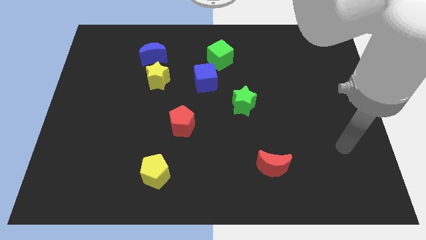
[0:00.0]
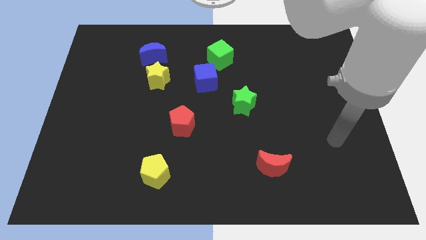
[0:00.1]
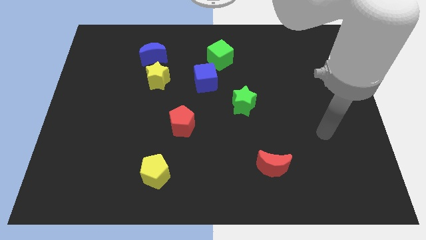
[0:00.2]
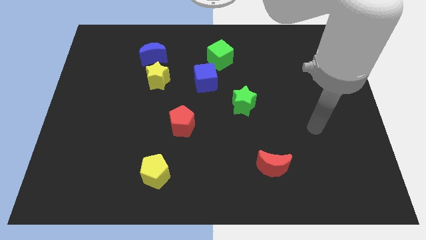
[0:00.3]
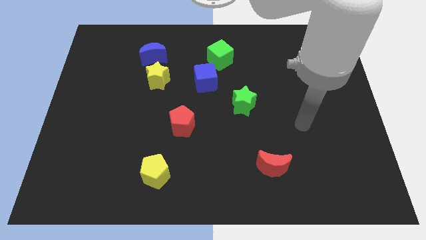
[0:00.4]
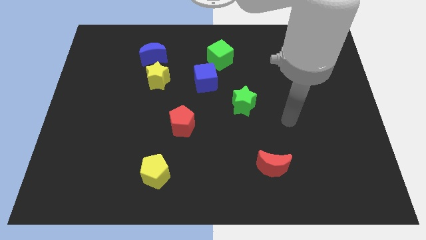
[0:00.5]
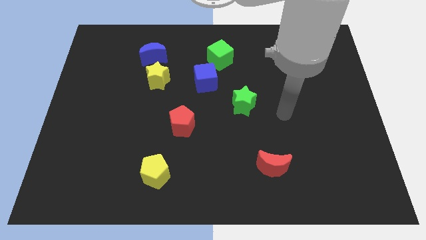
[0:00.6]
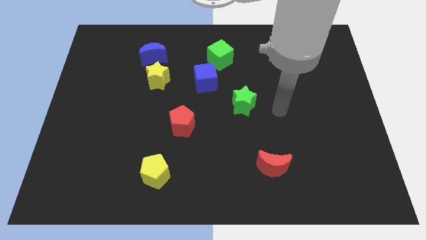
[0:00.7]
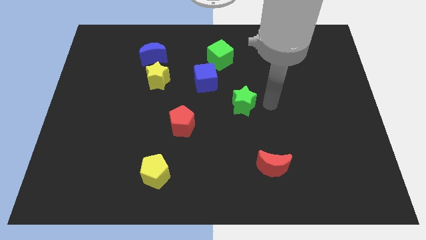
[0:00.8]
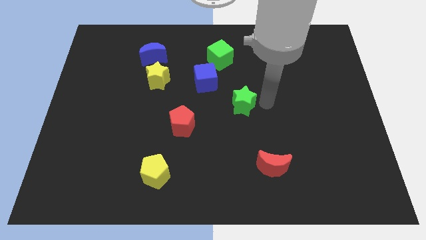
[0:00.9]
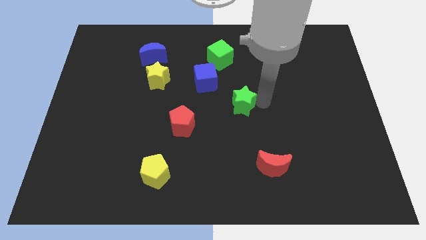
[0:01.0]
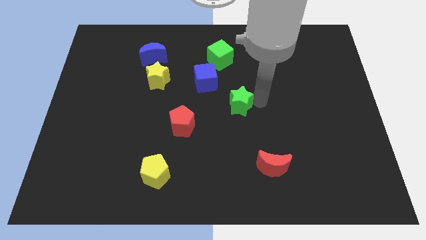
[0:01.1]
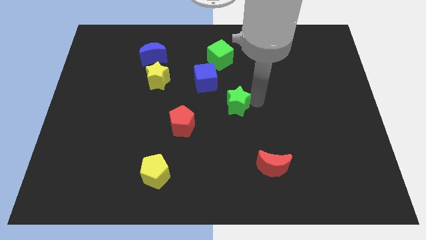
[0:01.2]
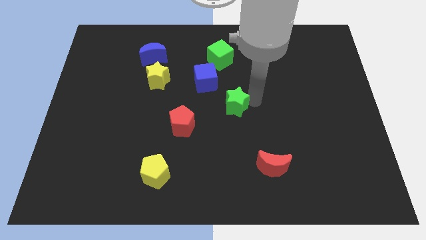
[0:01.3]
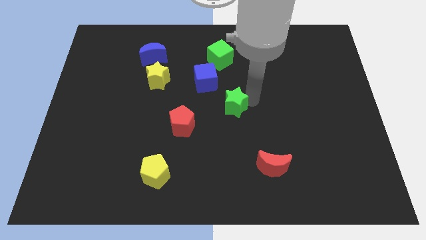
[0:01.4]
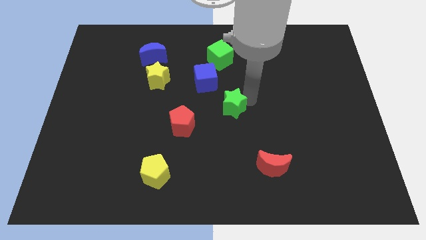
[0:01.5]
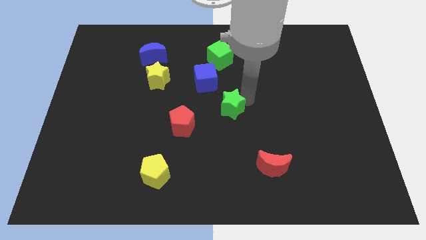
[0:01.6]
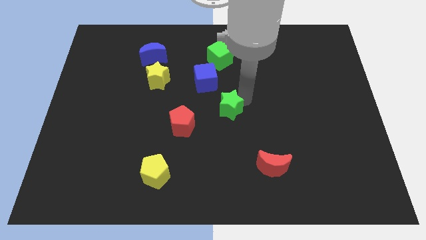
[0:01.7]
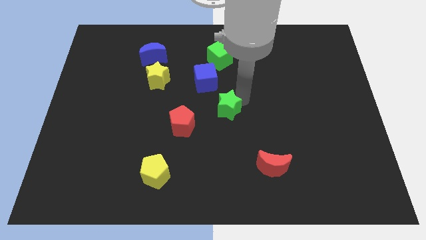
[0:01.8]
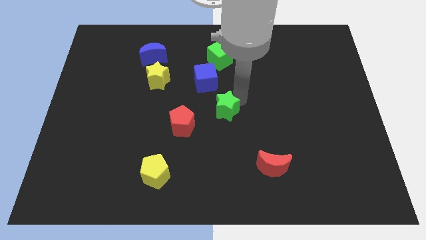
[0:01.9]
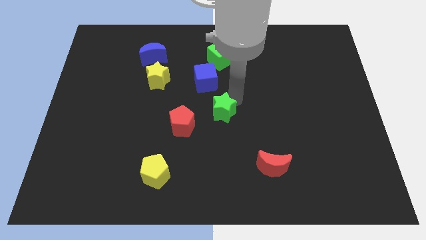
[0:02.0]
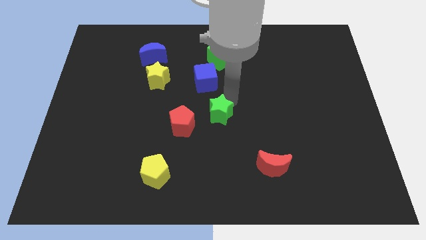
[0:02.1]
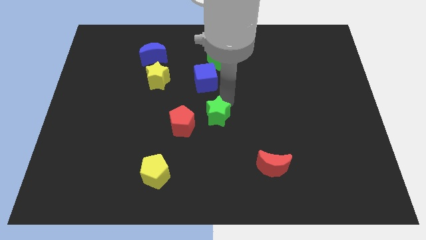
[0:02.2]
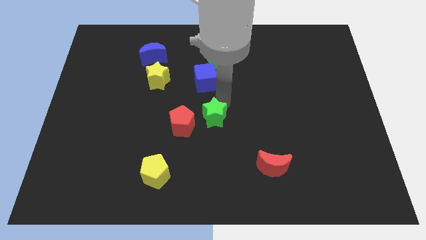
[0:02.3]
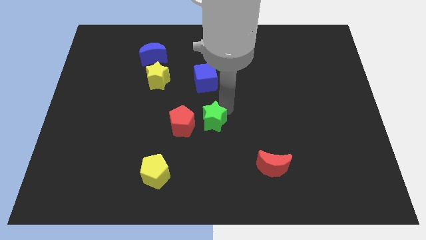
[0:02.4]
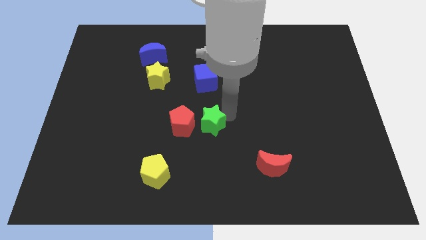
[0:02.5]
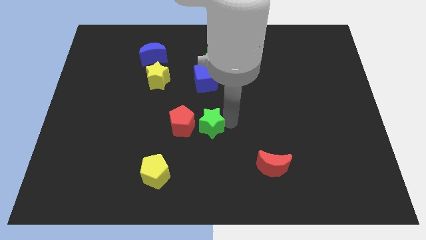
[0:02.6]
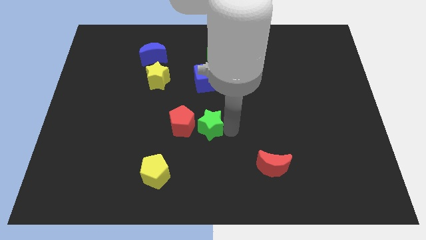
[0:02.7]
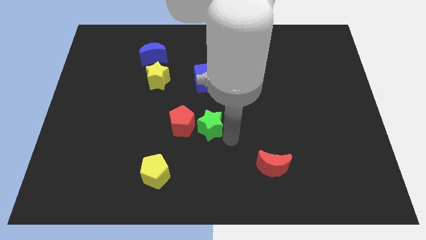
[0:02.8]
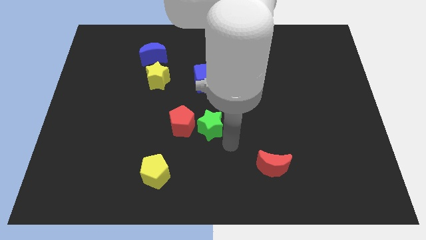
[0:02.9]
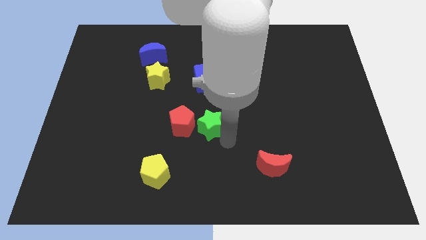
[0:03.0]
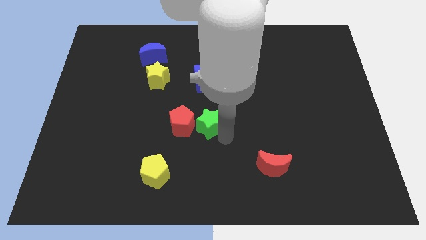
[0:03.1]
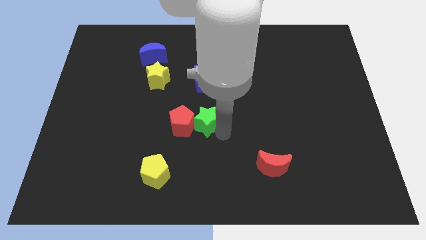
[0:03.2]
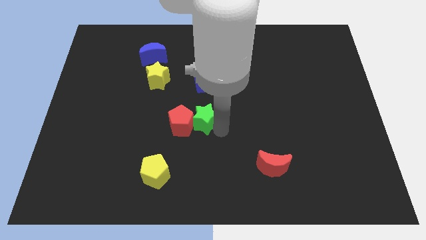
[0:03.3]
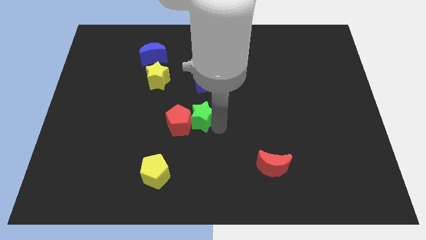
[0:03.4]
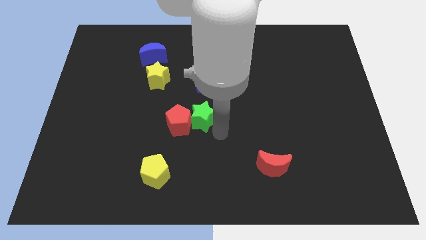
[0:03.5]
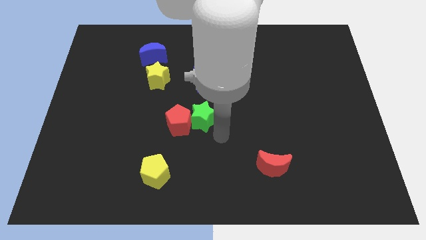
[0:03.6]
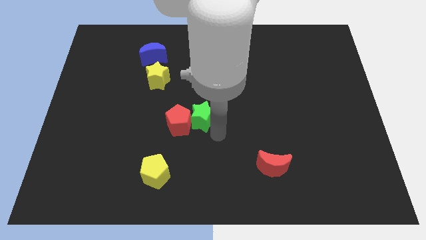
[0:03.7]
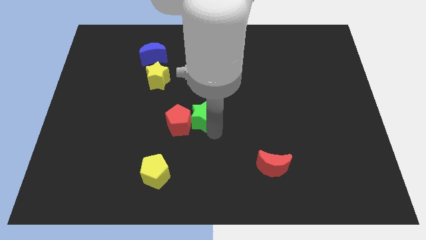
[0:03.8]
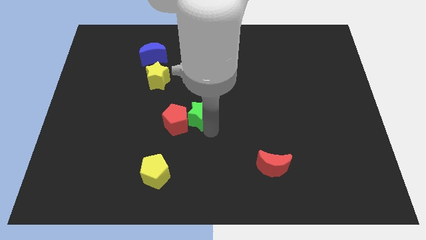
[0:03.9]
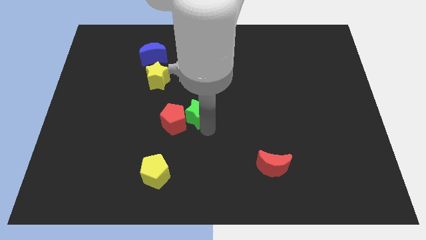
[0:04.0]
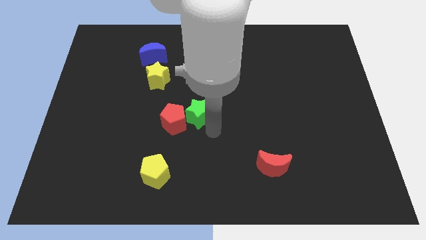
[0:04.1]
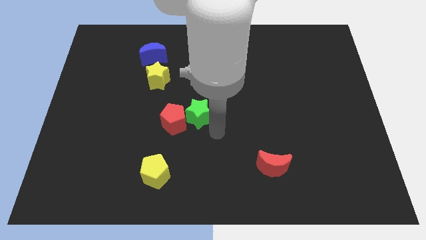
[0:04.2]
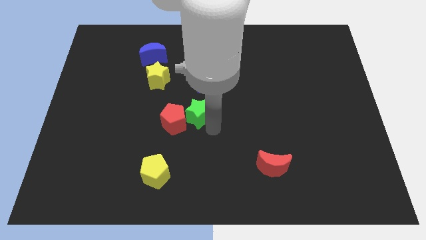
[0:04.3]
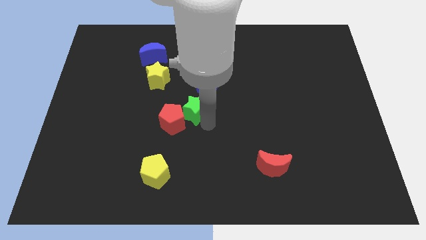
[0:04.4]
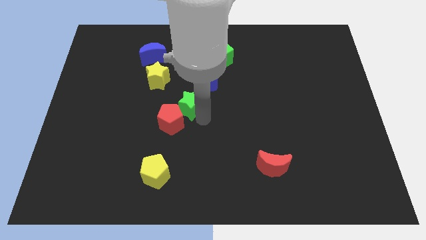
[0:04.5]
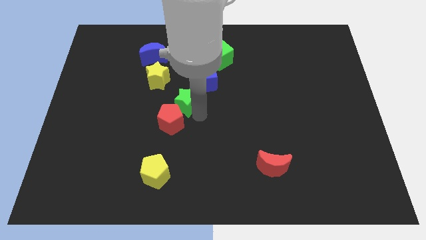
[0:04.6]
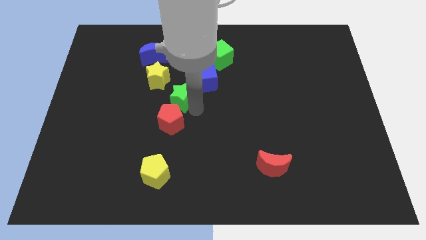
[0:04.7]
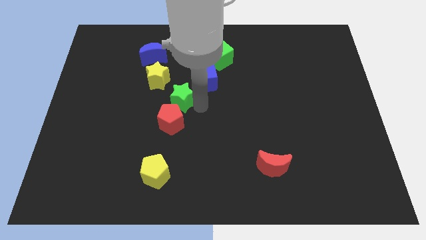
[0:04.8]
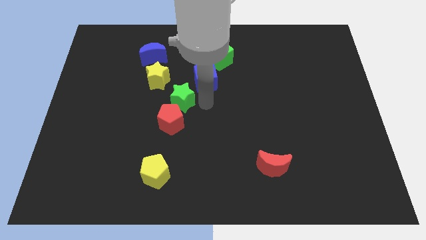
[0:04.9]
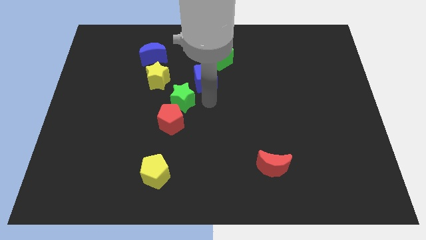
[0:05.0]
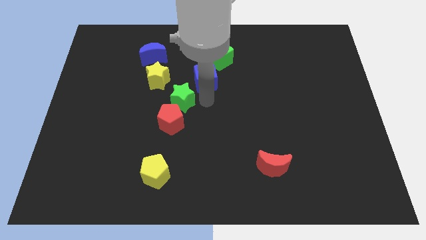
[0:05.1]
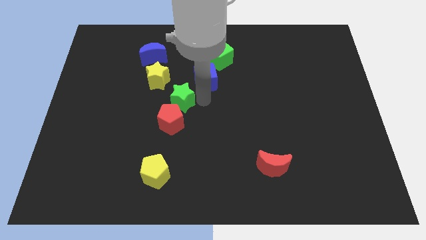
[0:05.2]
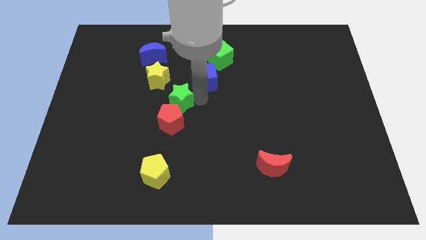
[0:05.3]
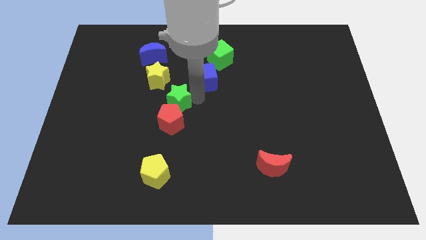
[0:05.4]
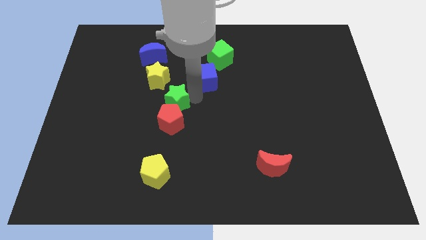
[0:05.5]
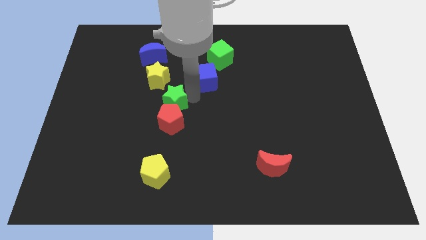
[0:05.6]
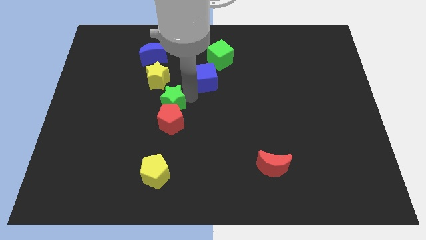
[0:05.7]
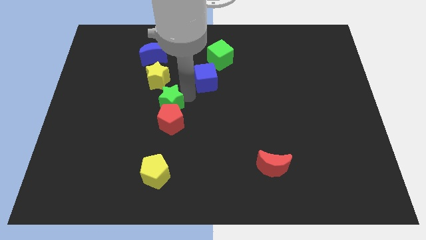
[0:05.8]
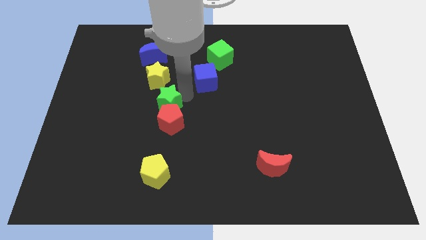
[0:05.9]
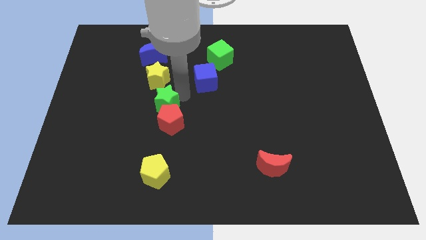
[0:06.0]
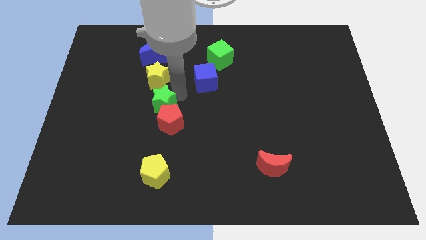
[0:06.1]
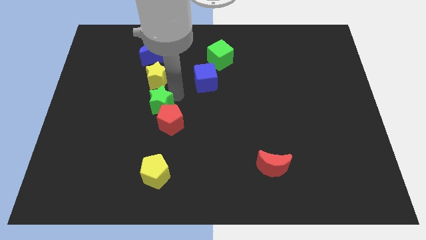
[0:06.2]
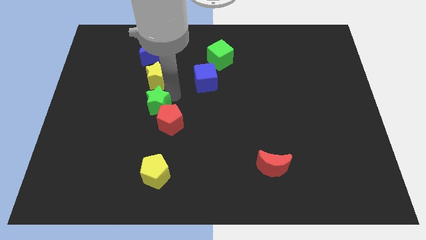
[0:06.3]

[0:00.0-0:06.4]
push the green star left

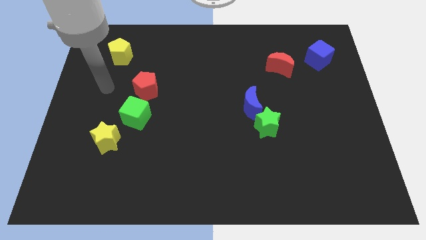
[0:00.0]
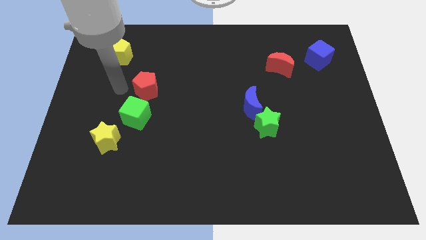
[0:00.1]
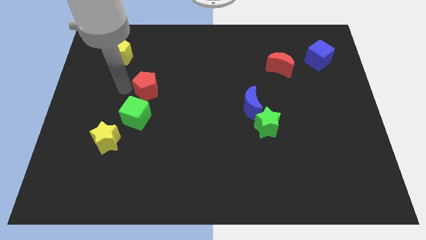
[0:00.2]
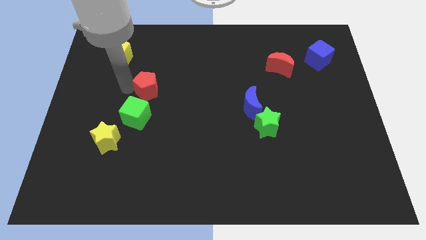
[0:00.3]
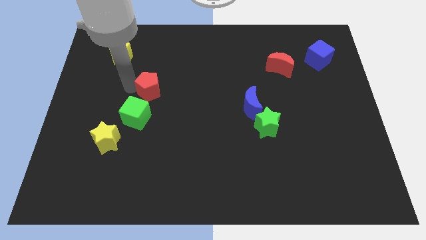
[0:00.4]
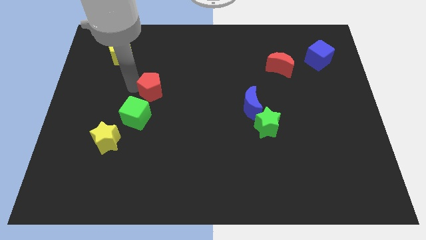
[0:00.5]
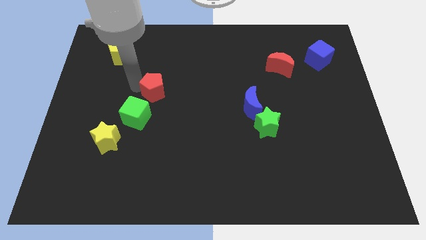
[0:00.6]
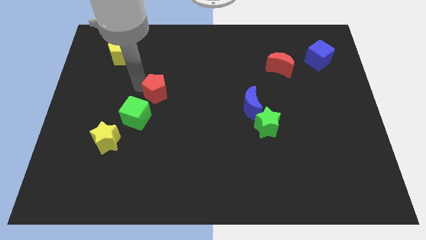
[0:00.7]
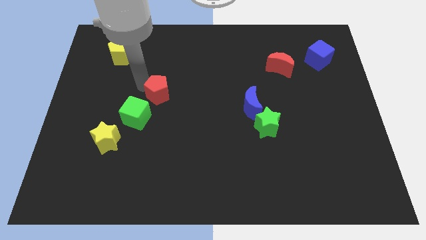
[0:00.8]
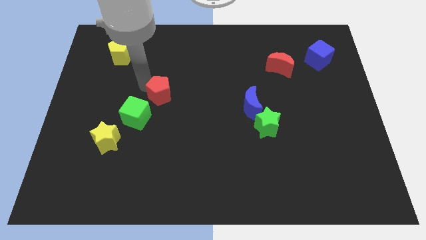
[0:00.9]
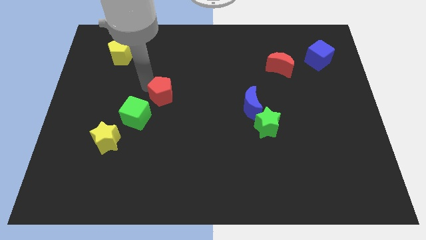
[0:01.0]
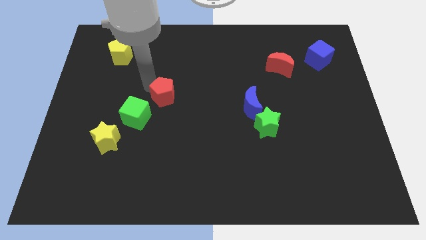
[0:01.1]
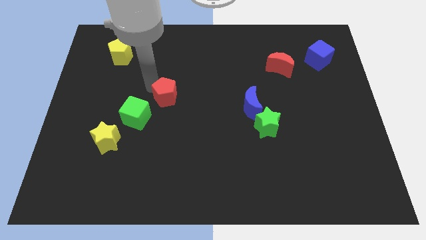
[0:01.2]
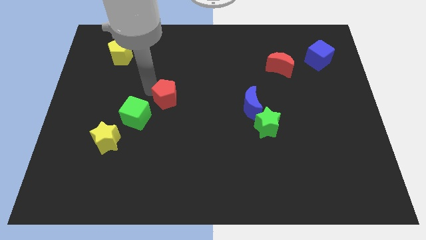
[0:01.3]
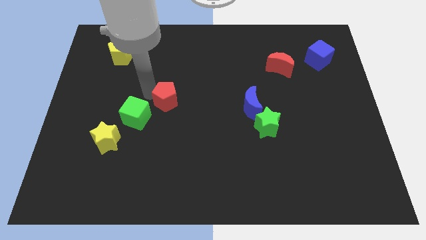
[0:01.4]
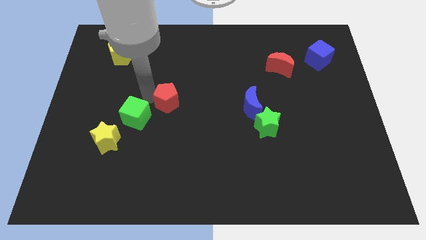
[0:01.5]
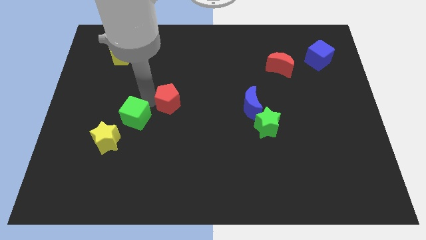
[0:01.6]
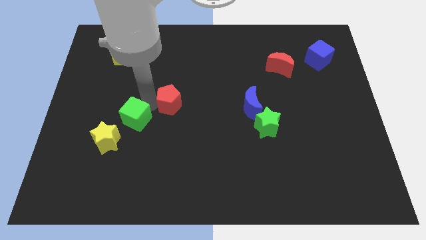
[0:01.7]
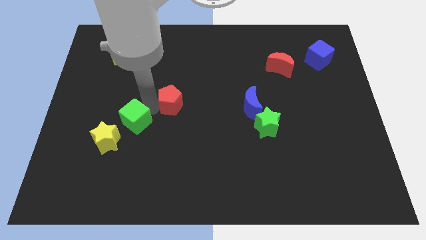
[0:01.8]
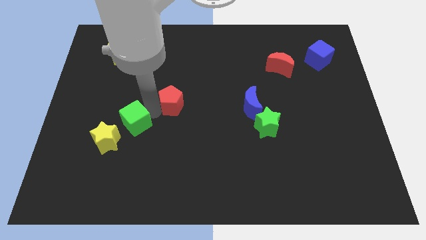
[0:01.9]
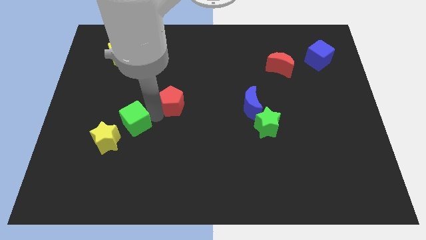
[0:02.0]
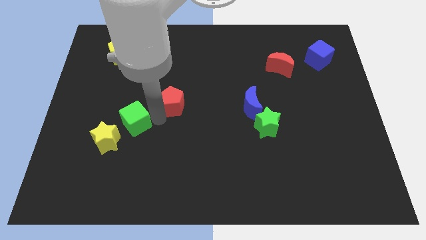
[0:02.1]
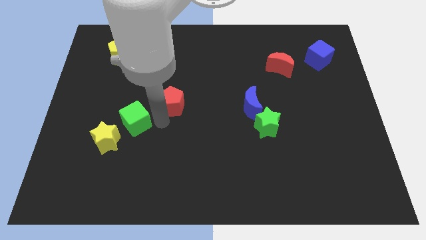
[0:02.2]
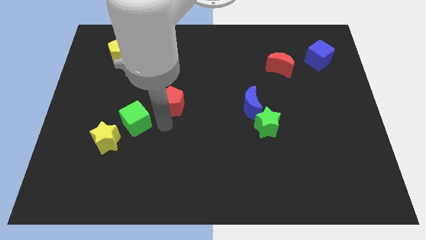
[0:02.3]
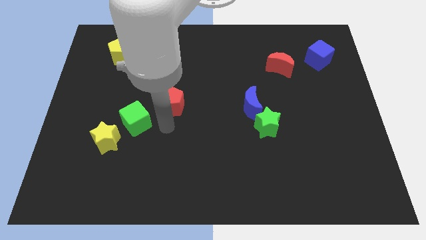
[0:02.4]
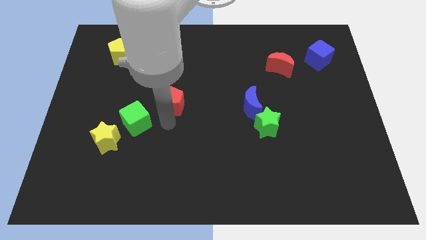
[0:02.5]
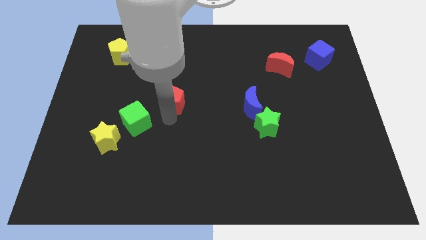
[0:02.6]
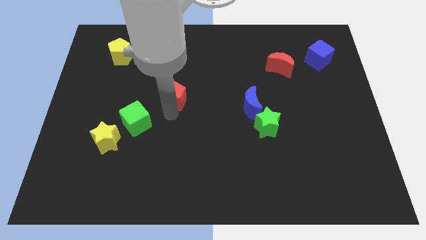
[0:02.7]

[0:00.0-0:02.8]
slightly move the red pentagon right
